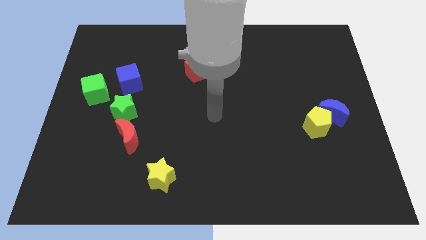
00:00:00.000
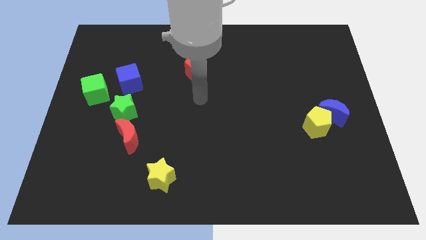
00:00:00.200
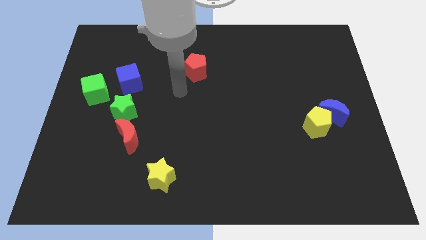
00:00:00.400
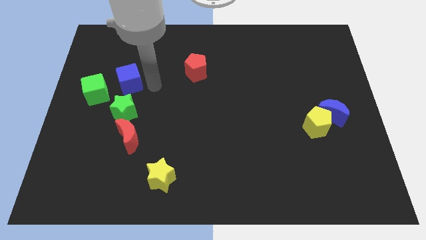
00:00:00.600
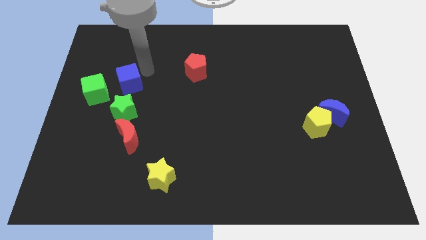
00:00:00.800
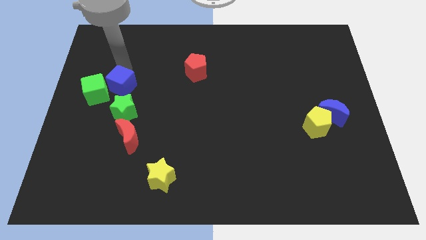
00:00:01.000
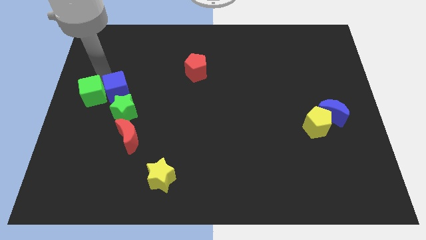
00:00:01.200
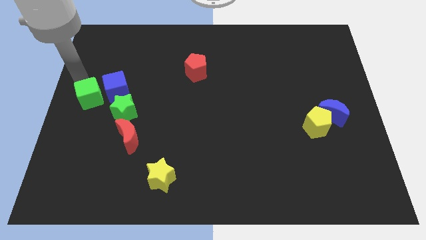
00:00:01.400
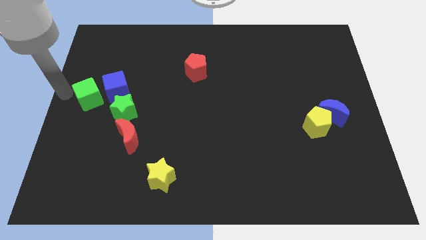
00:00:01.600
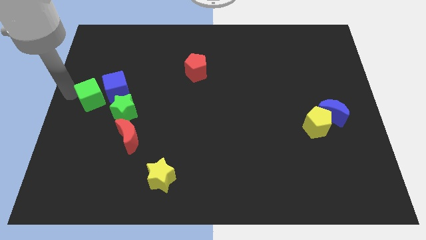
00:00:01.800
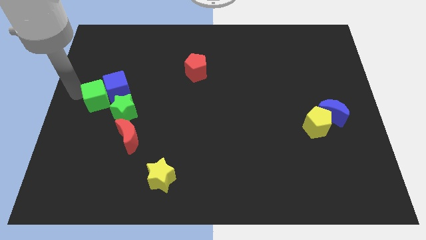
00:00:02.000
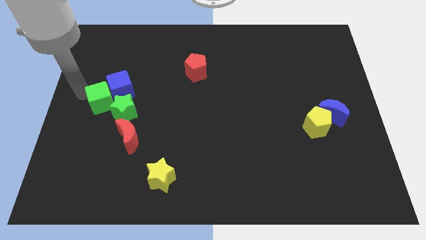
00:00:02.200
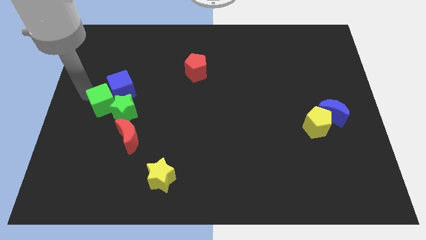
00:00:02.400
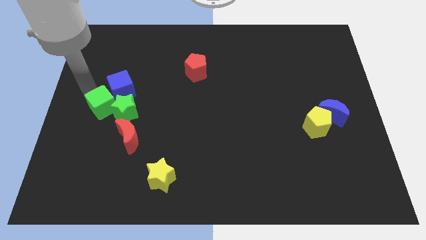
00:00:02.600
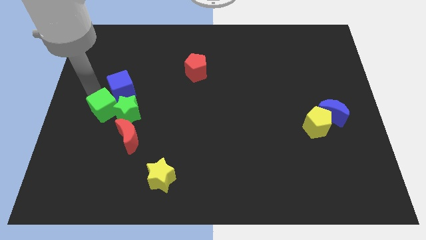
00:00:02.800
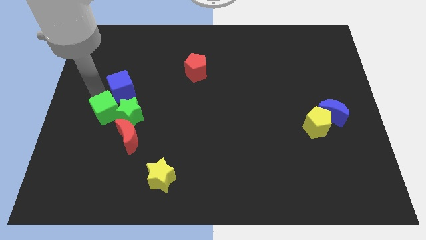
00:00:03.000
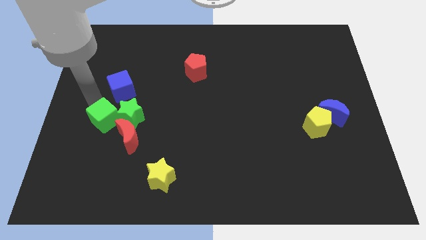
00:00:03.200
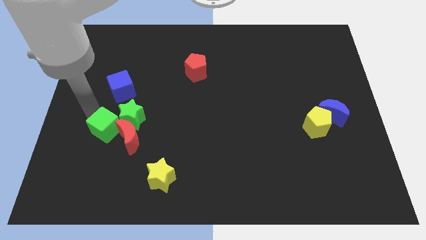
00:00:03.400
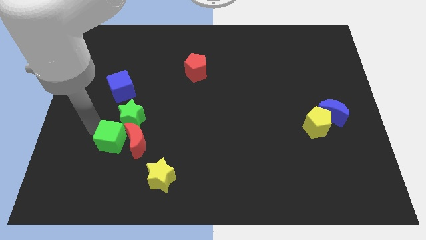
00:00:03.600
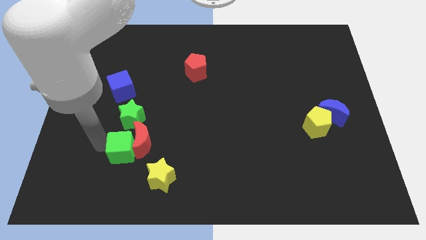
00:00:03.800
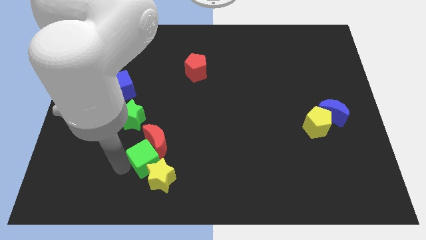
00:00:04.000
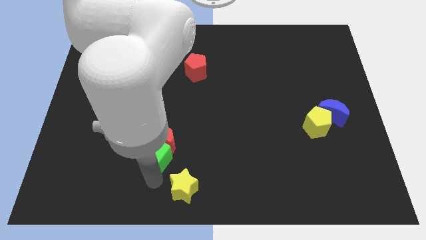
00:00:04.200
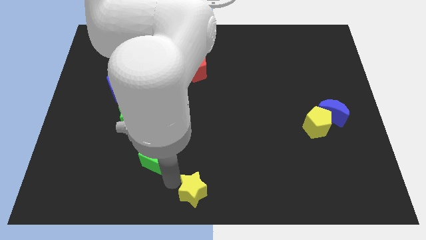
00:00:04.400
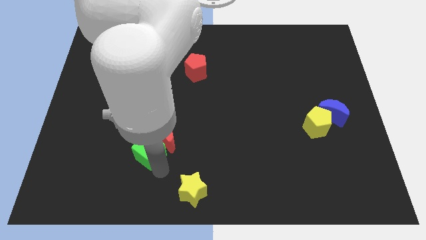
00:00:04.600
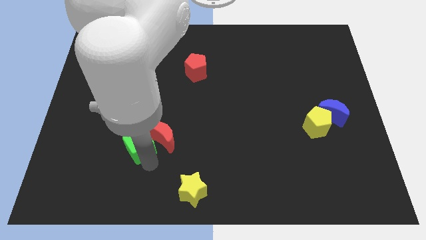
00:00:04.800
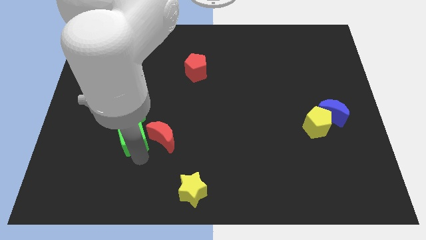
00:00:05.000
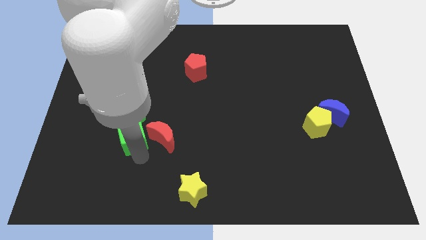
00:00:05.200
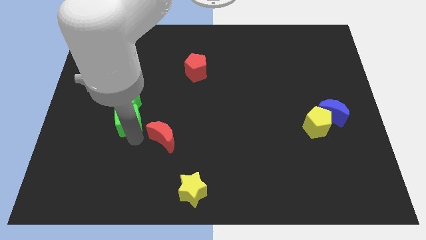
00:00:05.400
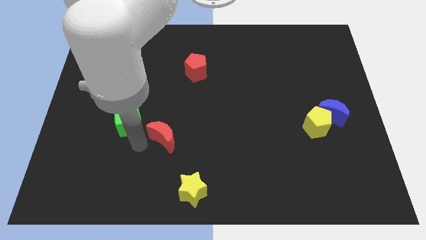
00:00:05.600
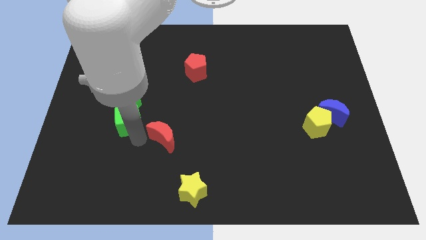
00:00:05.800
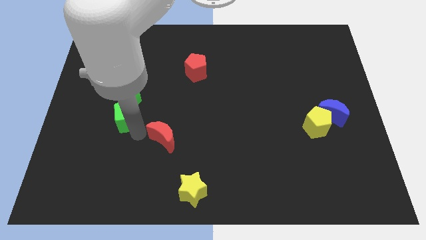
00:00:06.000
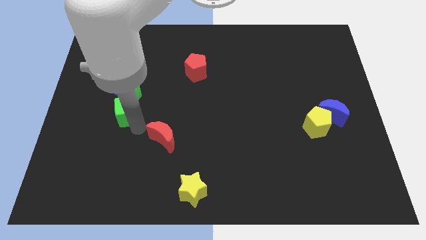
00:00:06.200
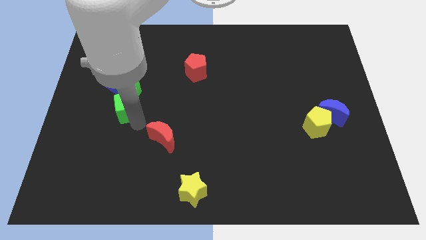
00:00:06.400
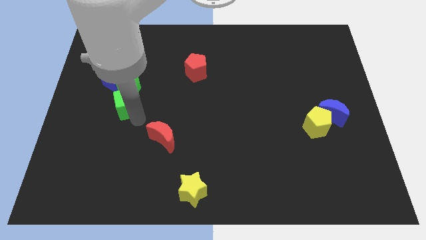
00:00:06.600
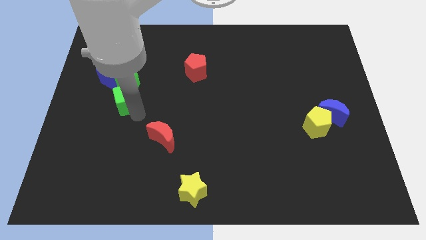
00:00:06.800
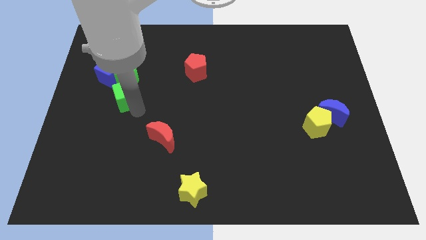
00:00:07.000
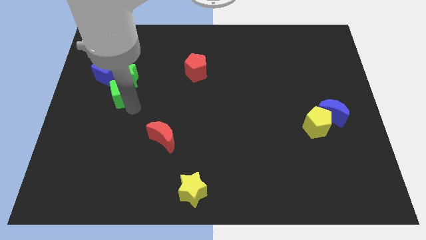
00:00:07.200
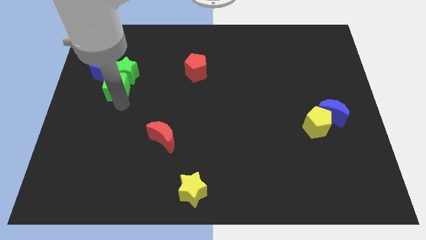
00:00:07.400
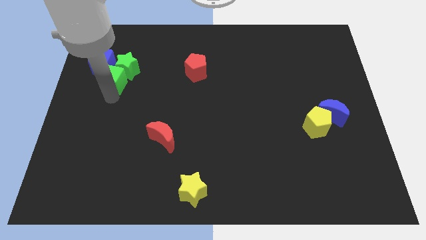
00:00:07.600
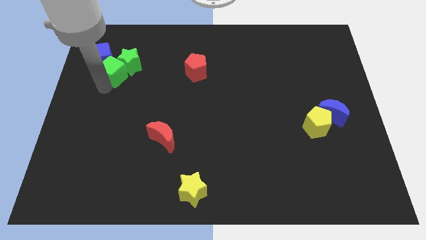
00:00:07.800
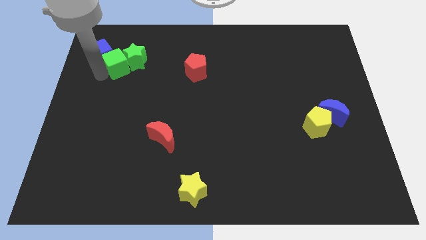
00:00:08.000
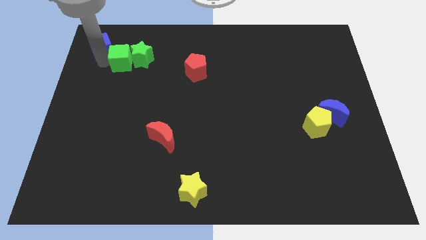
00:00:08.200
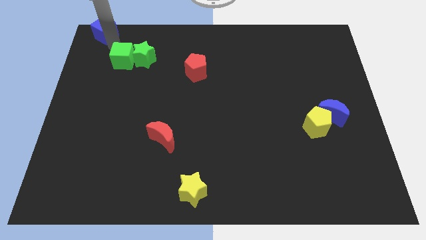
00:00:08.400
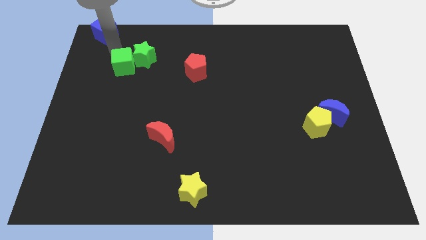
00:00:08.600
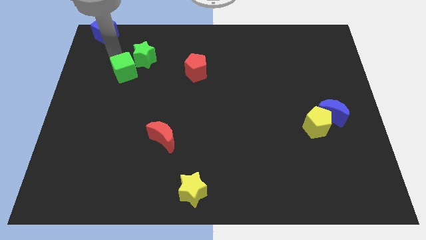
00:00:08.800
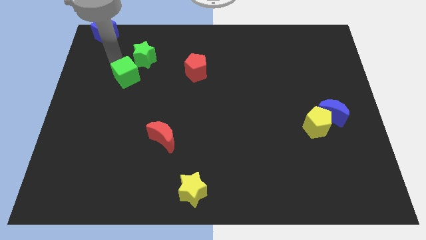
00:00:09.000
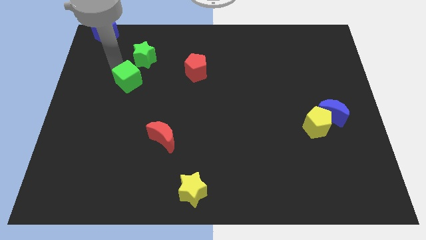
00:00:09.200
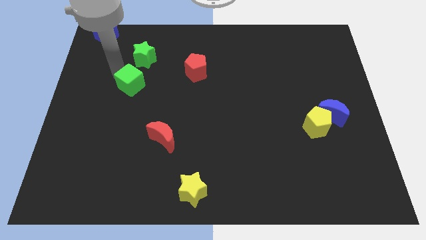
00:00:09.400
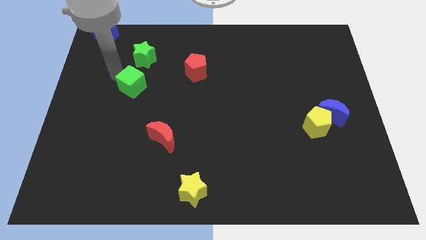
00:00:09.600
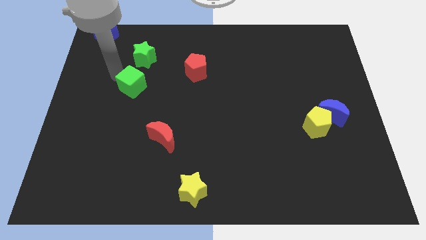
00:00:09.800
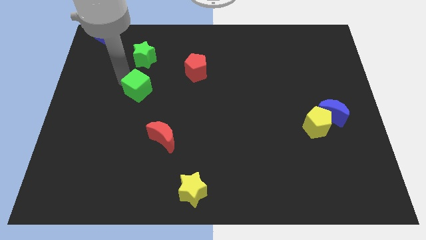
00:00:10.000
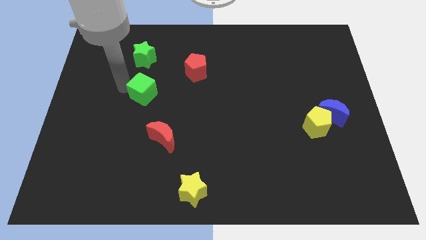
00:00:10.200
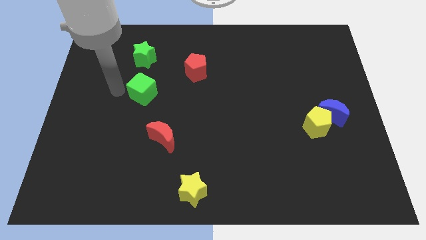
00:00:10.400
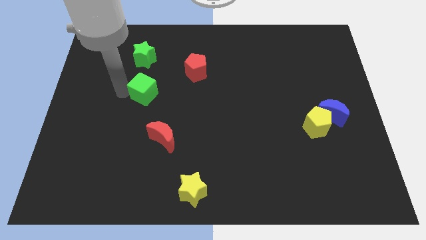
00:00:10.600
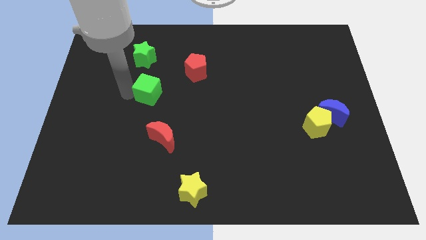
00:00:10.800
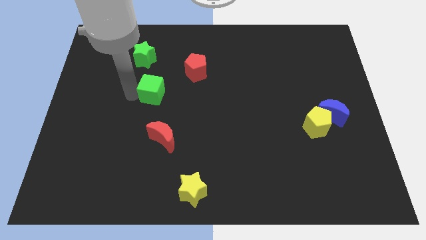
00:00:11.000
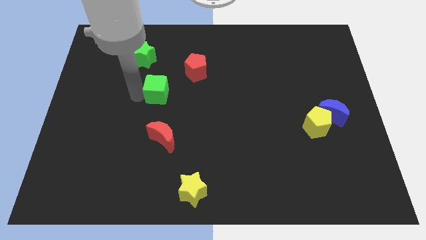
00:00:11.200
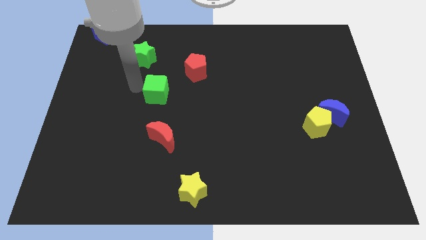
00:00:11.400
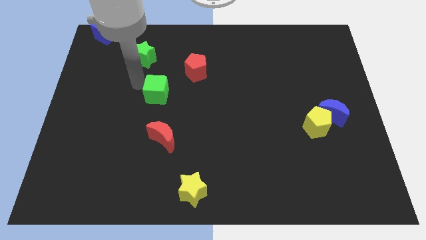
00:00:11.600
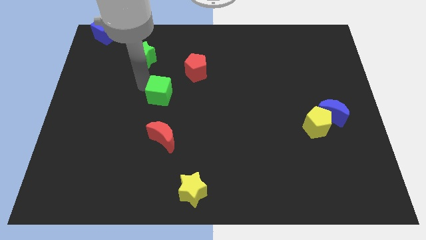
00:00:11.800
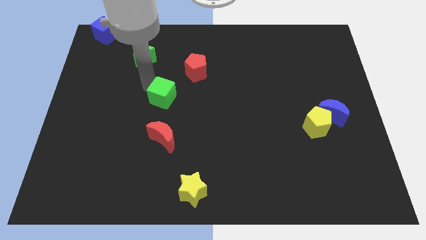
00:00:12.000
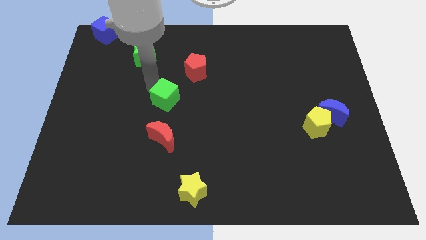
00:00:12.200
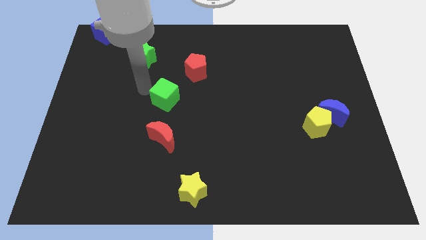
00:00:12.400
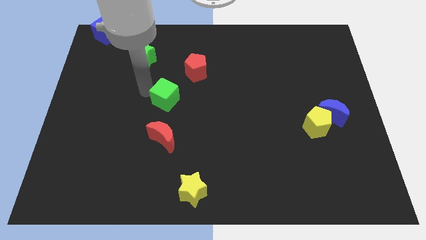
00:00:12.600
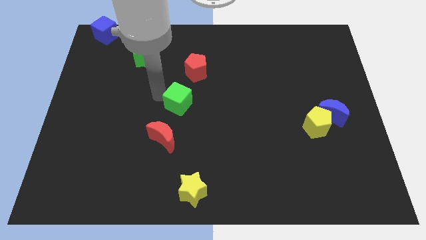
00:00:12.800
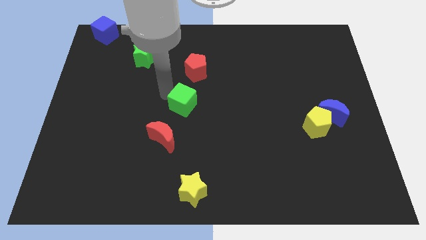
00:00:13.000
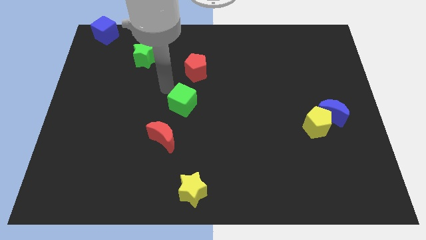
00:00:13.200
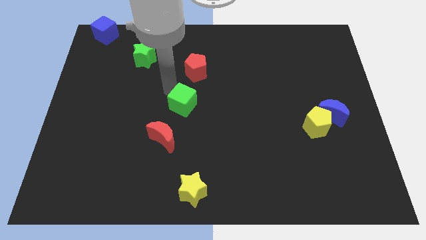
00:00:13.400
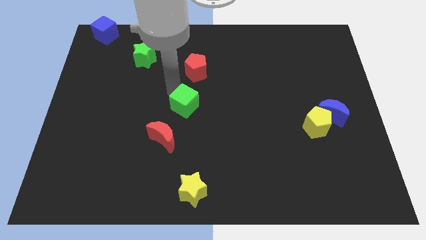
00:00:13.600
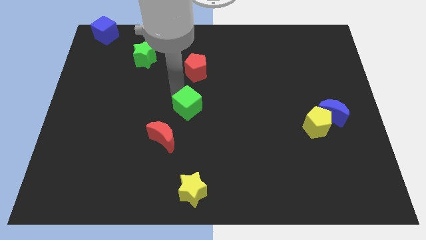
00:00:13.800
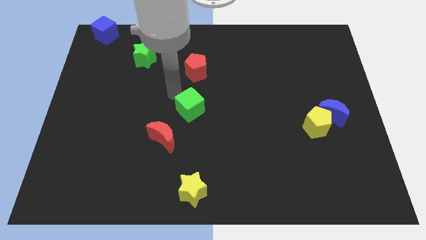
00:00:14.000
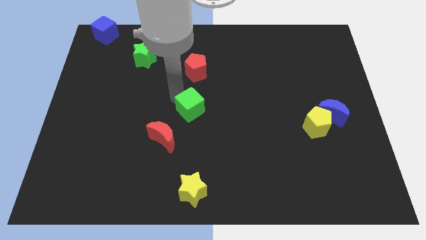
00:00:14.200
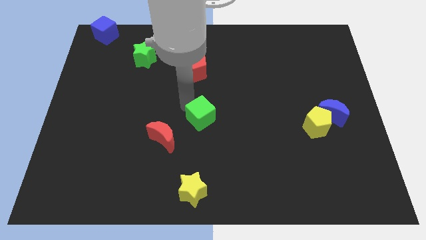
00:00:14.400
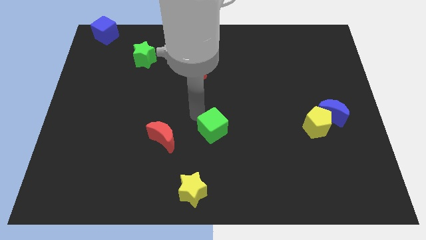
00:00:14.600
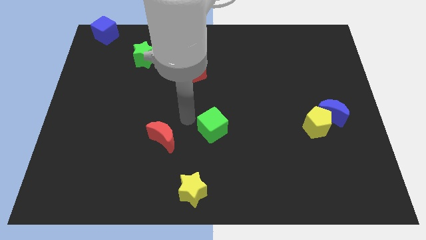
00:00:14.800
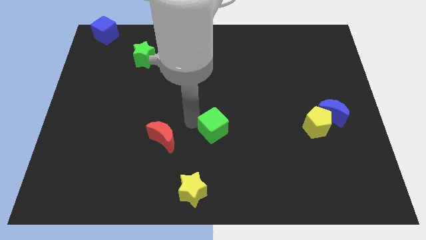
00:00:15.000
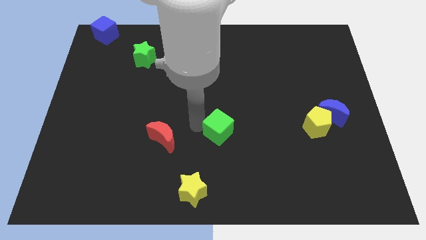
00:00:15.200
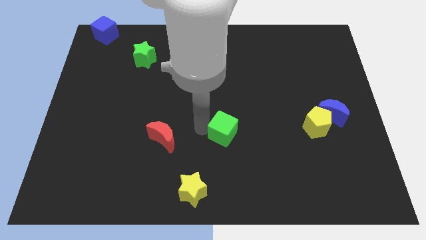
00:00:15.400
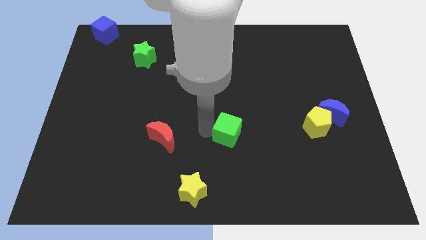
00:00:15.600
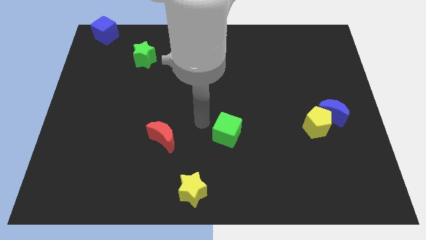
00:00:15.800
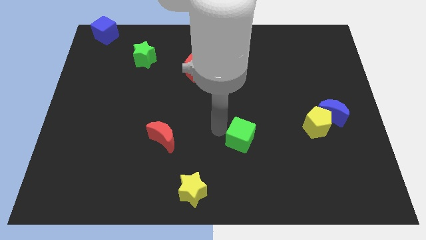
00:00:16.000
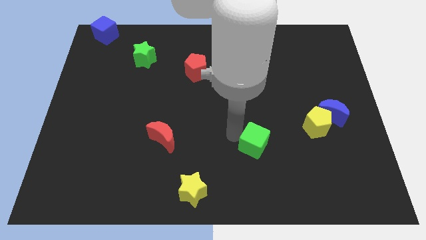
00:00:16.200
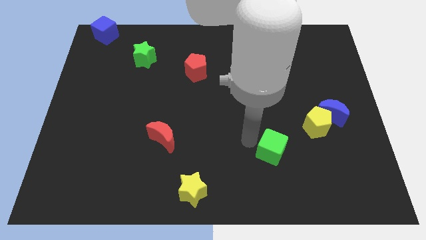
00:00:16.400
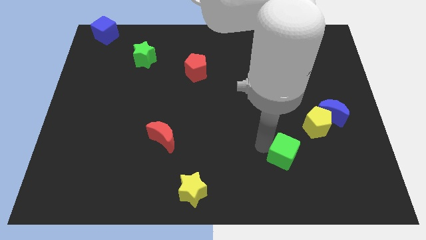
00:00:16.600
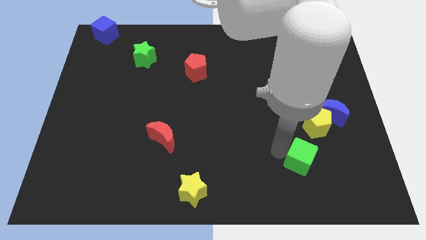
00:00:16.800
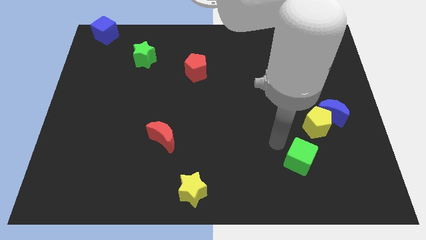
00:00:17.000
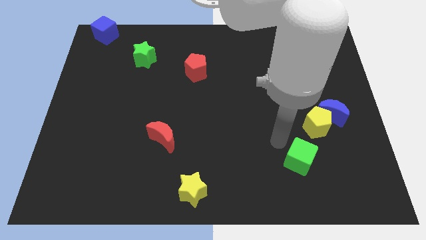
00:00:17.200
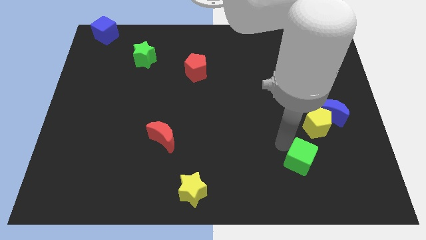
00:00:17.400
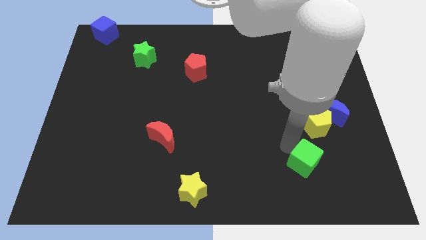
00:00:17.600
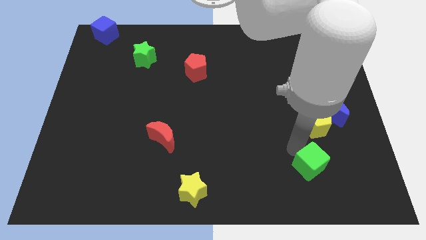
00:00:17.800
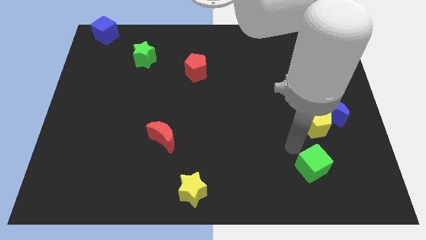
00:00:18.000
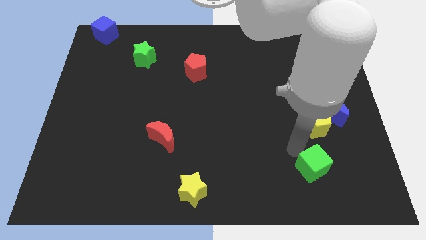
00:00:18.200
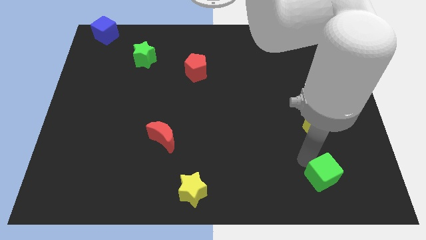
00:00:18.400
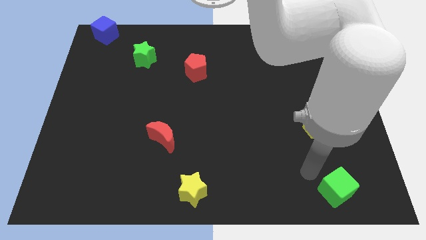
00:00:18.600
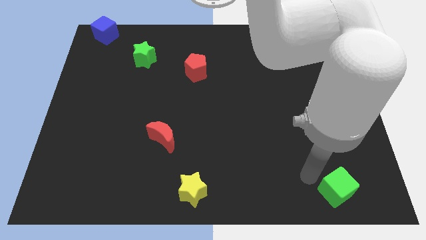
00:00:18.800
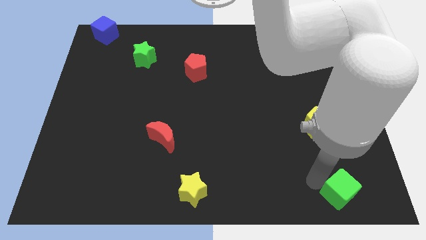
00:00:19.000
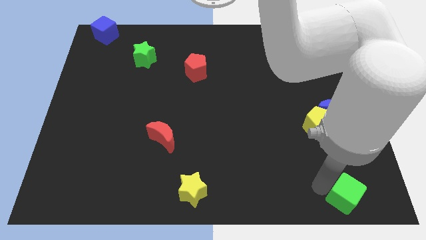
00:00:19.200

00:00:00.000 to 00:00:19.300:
move the green cube to the bottom right
